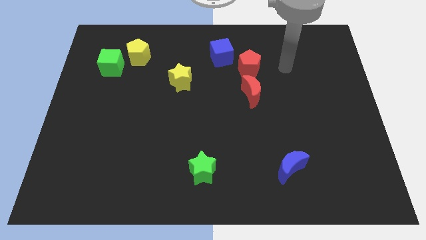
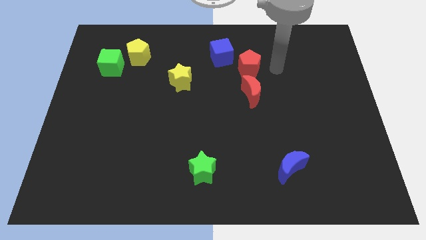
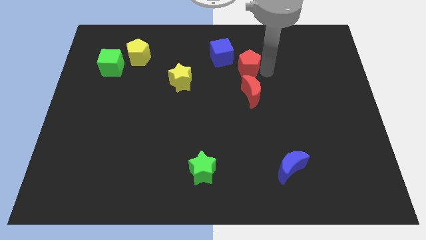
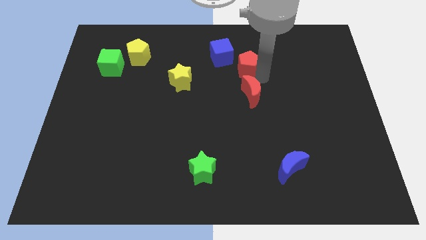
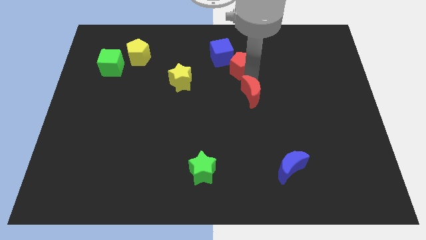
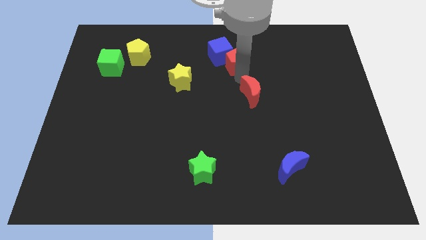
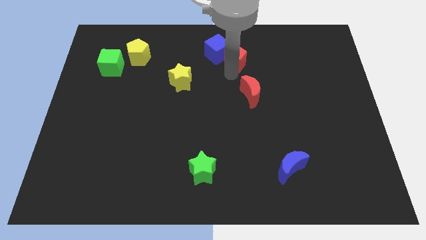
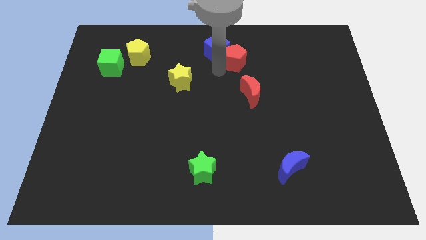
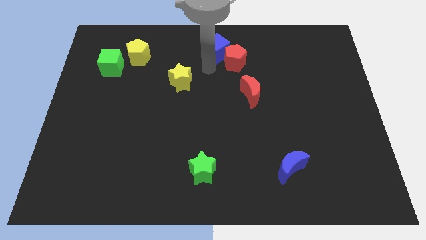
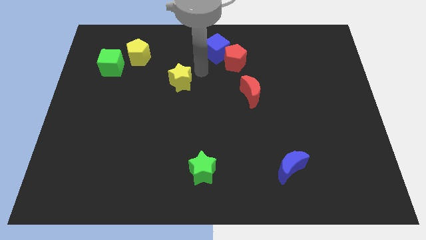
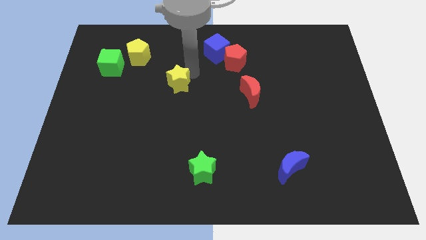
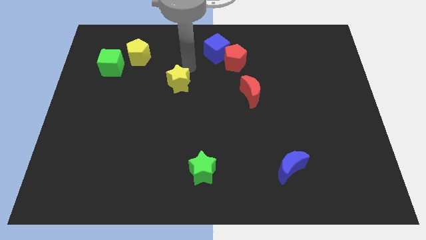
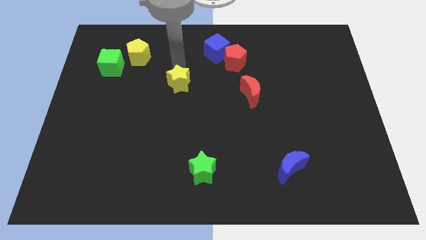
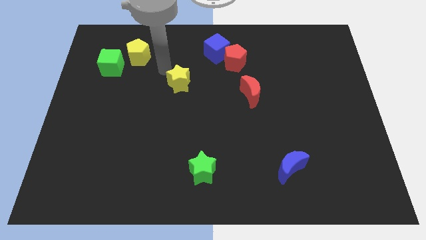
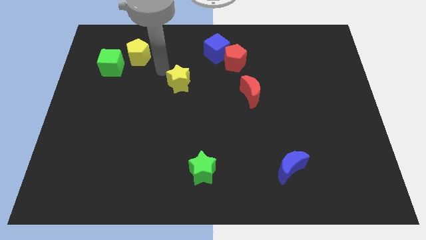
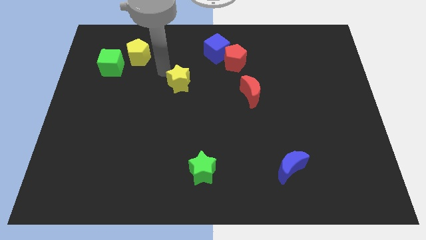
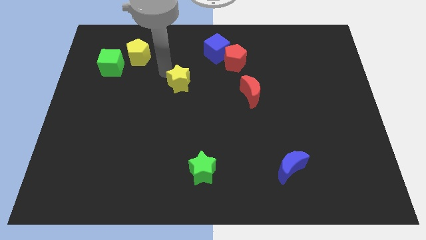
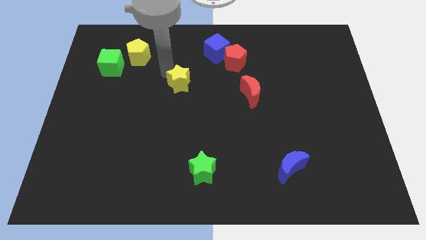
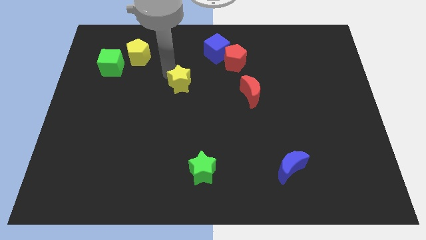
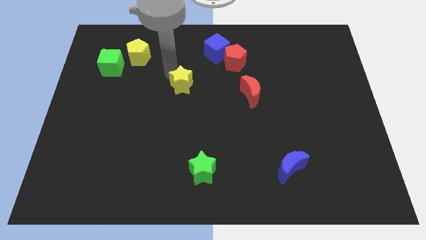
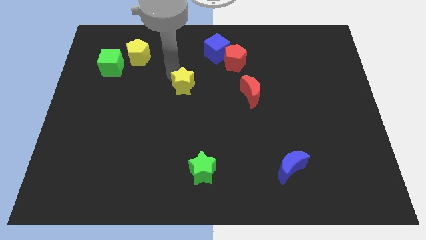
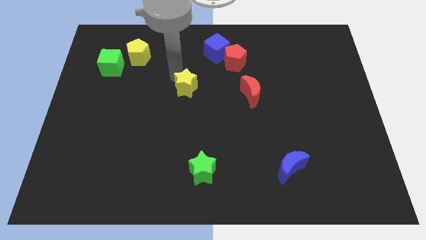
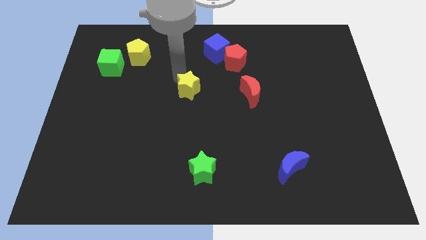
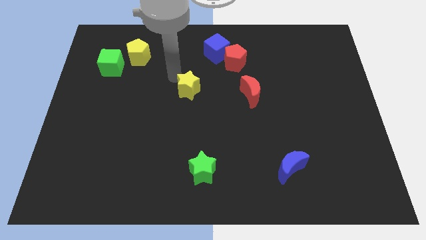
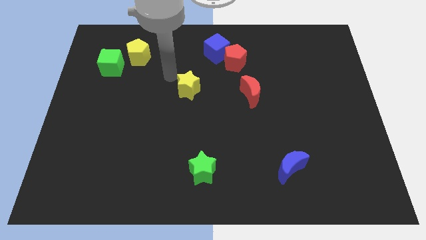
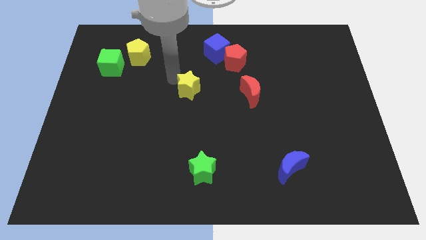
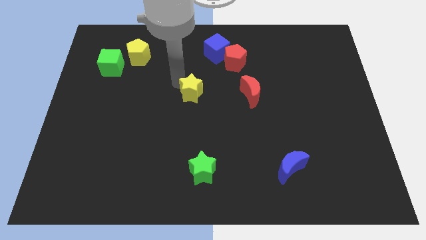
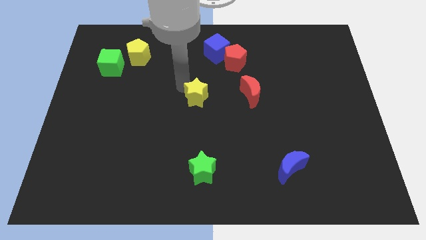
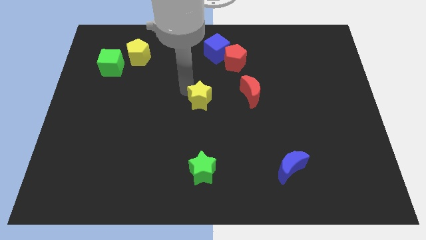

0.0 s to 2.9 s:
move the yellow star downwards and to the right a little bit

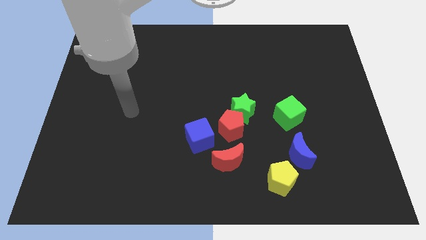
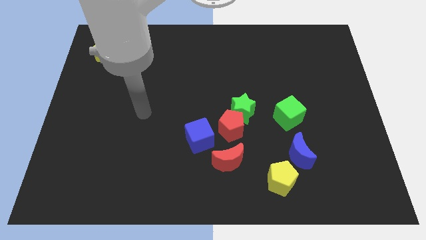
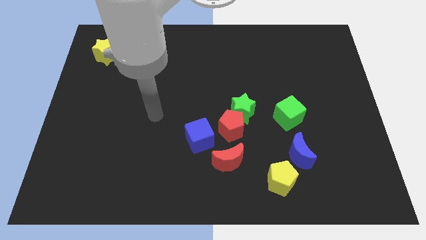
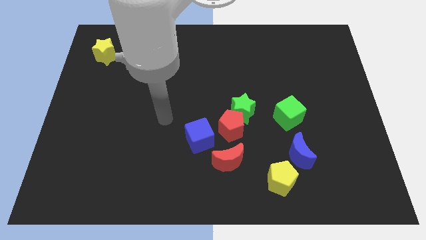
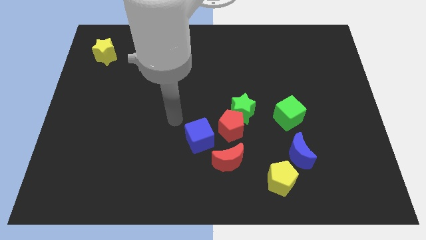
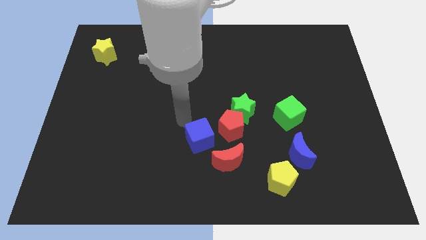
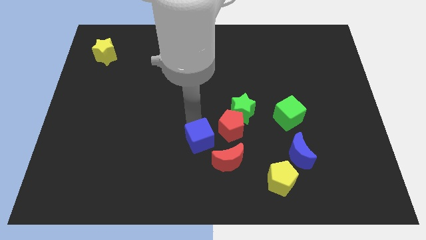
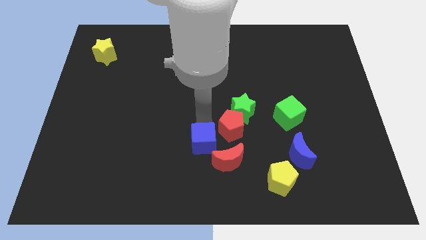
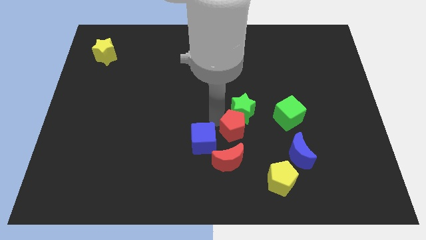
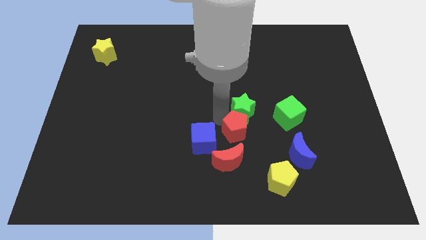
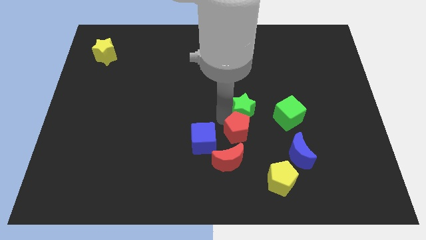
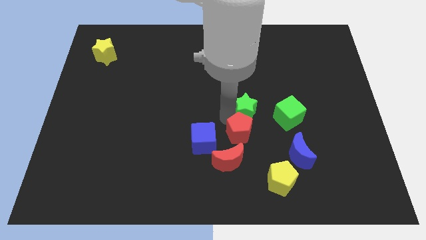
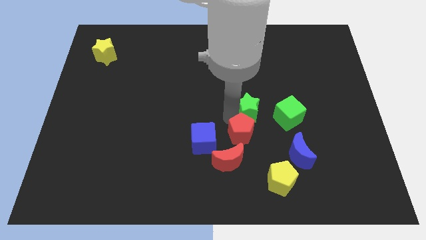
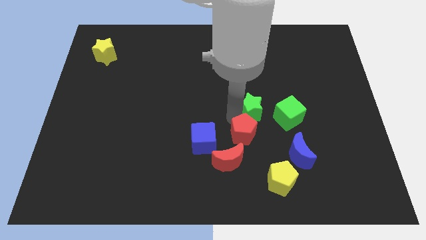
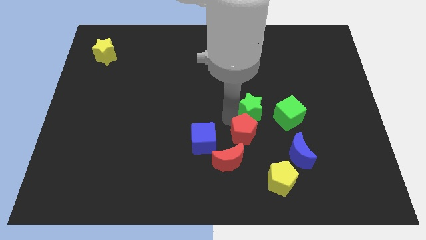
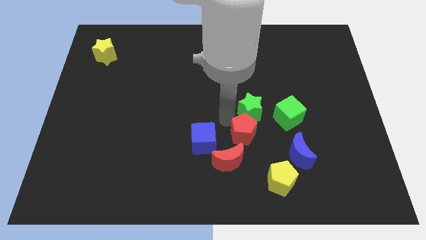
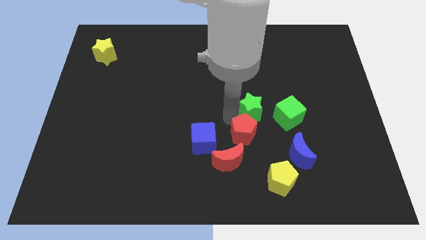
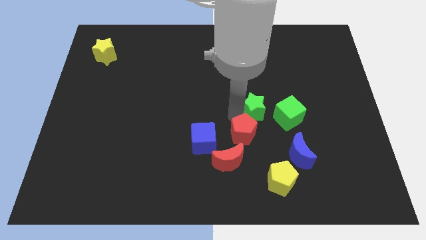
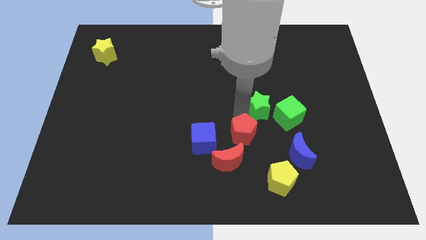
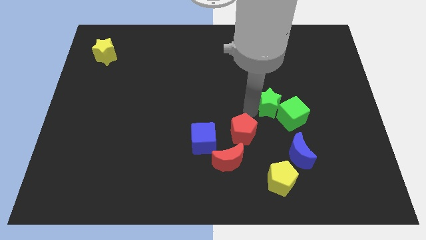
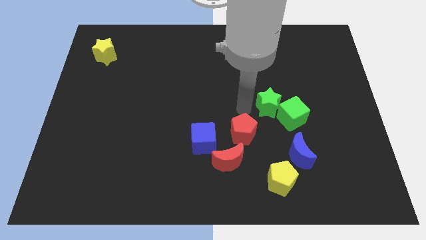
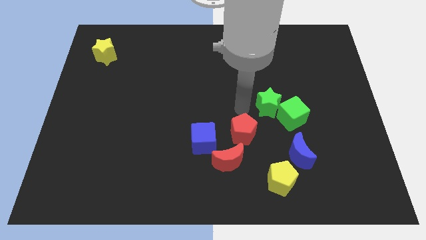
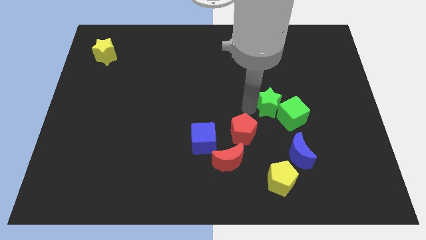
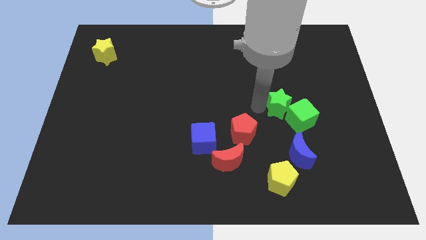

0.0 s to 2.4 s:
slightly slide the green star to the right

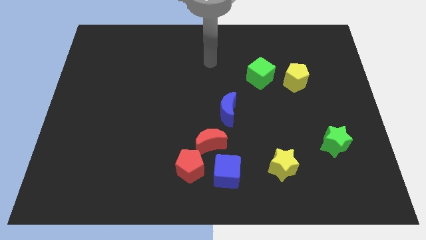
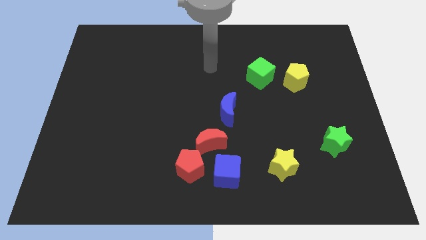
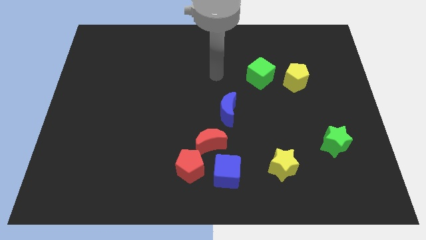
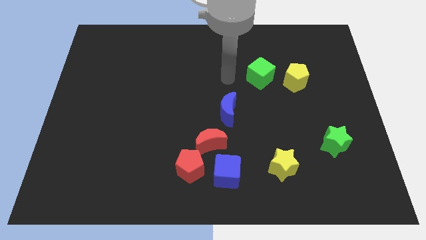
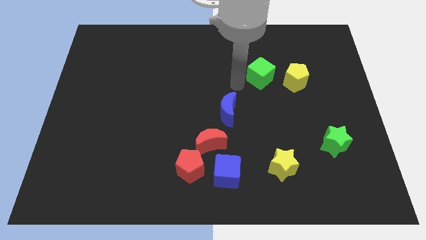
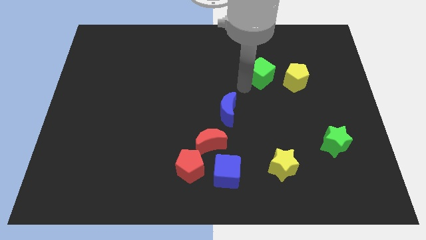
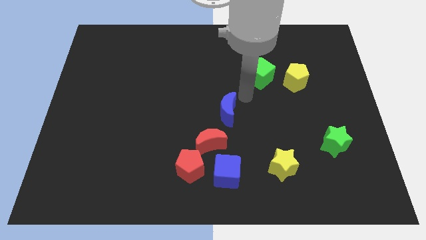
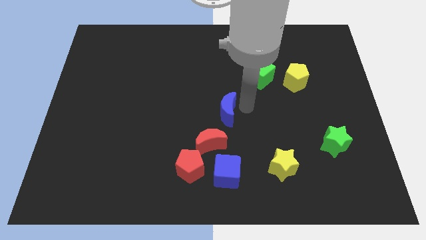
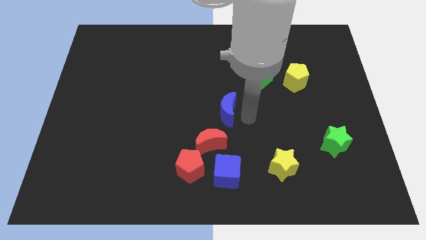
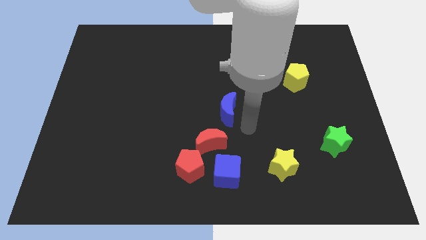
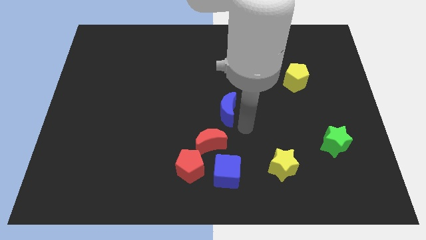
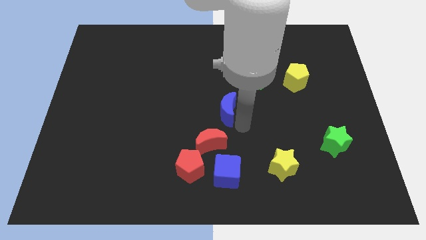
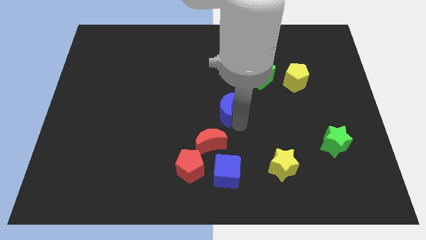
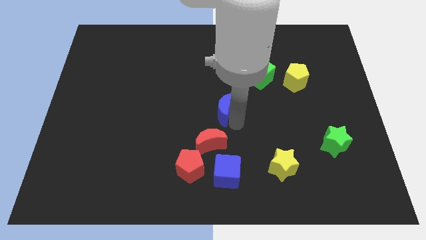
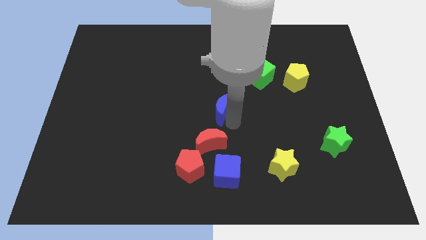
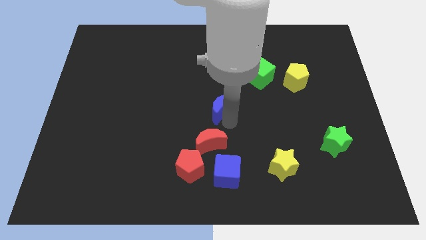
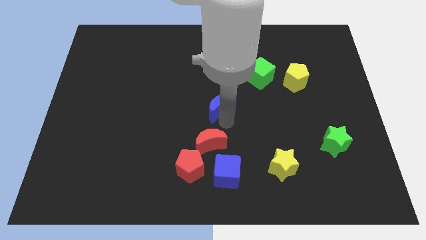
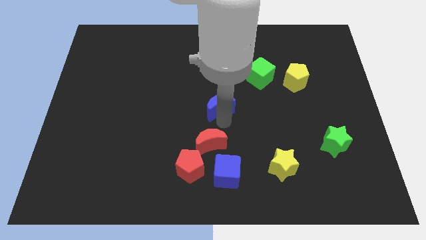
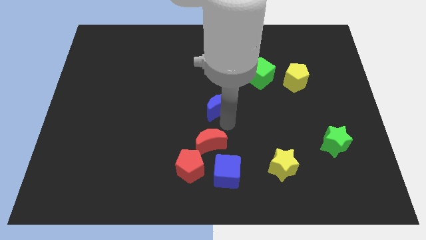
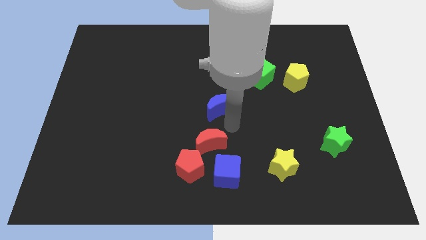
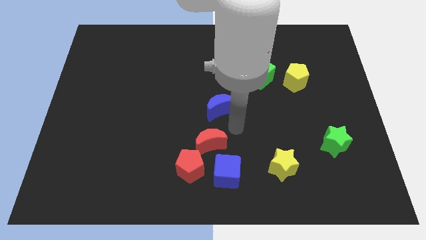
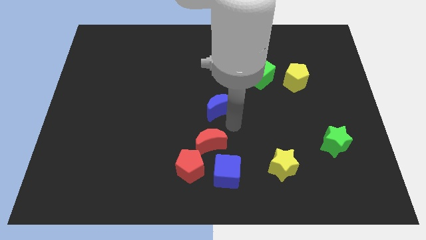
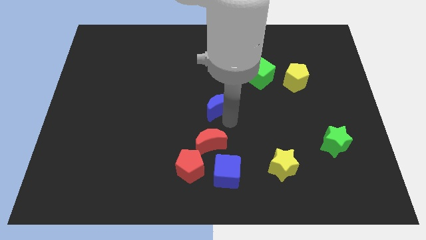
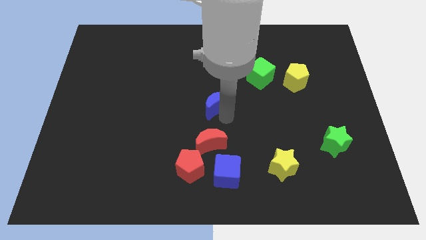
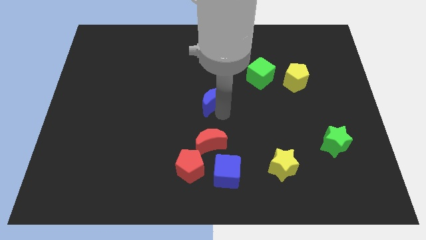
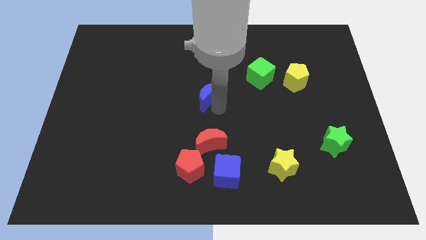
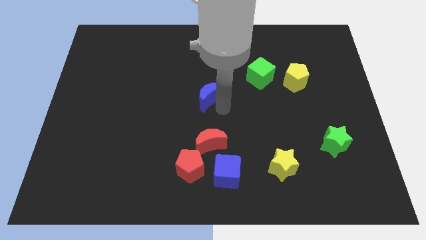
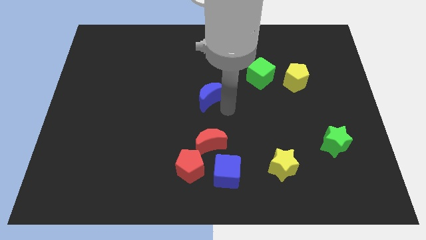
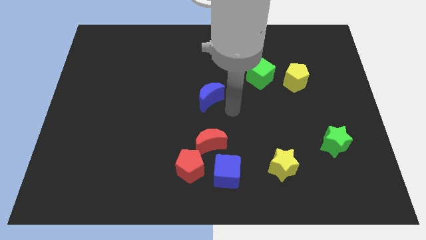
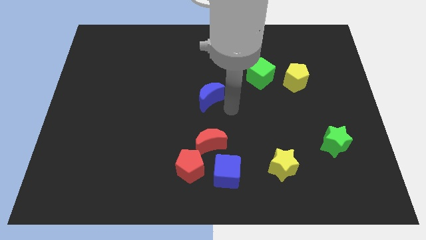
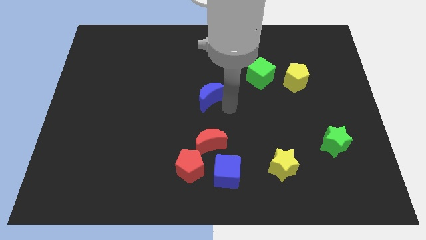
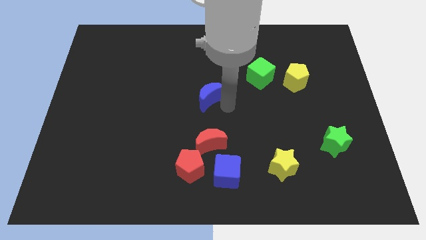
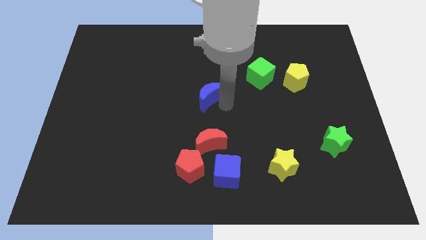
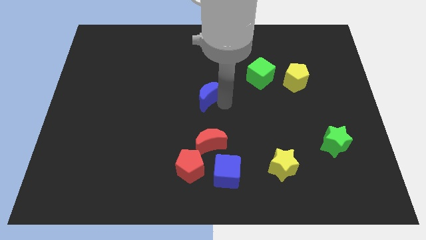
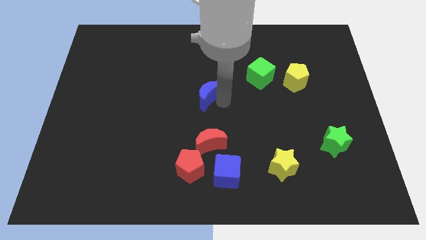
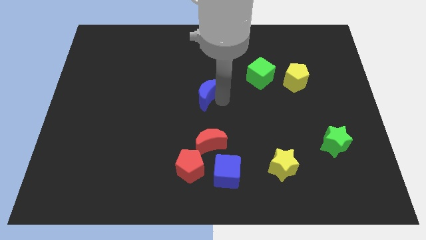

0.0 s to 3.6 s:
slide the blue moon a little upwards and left diagonally
